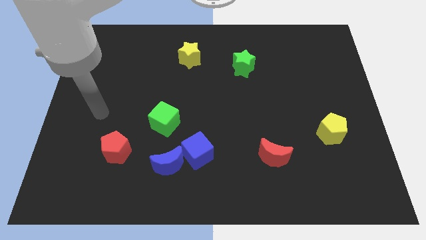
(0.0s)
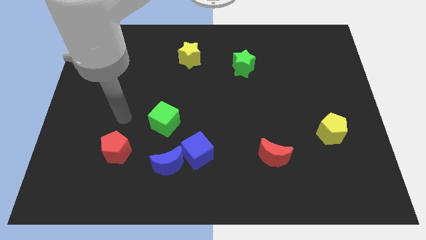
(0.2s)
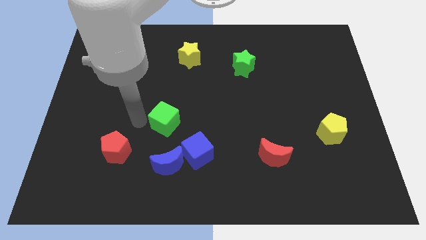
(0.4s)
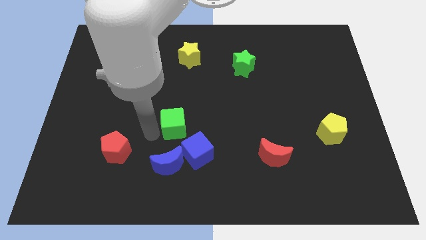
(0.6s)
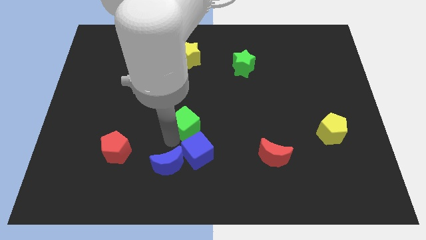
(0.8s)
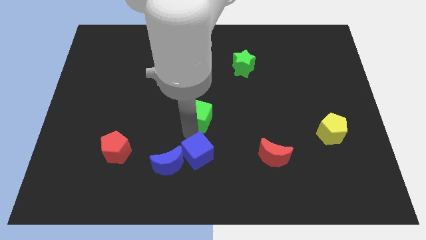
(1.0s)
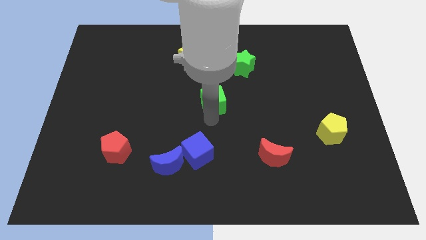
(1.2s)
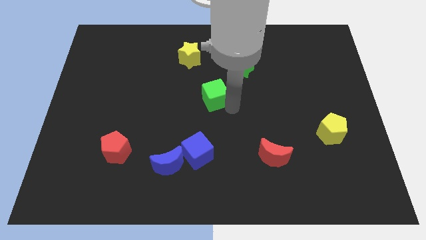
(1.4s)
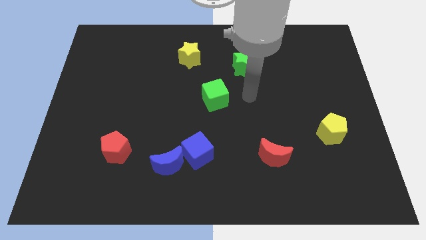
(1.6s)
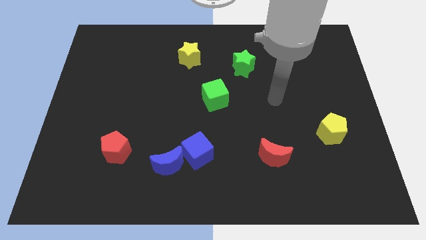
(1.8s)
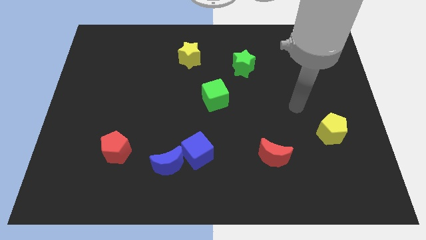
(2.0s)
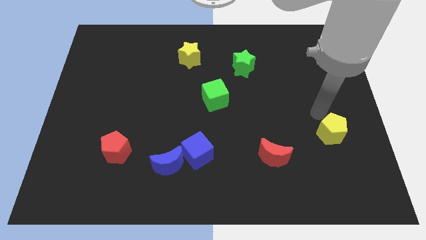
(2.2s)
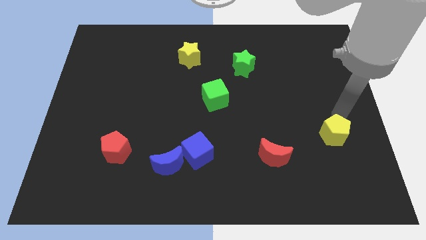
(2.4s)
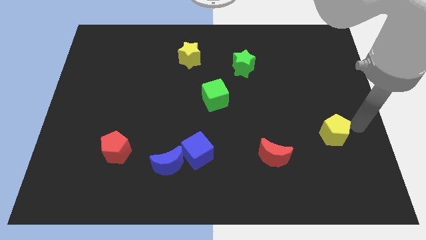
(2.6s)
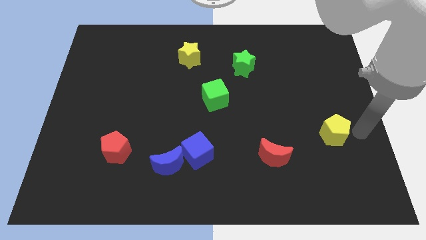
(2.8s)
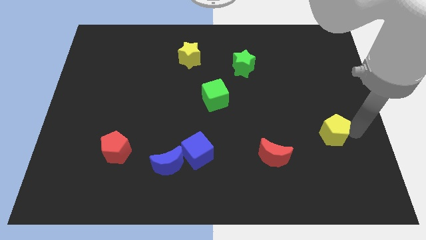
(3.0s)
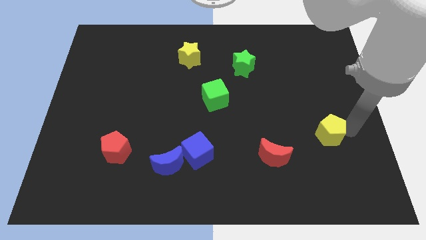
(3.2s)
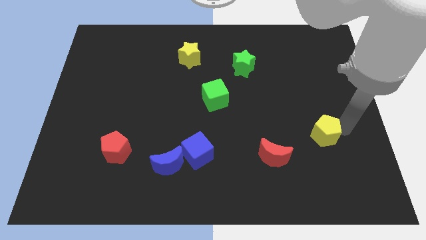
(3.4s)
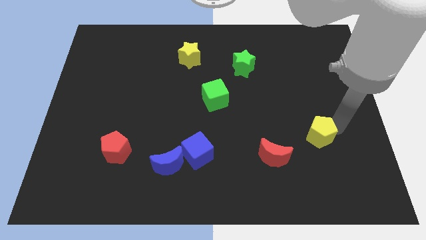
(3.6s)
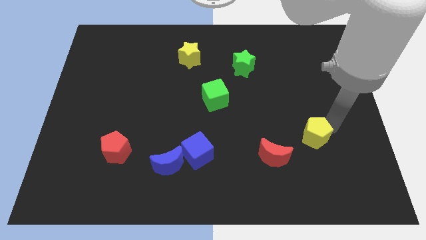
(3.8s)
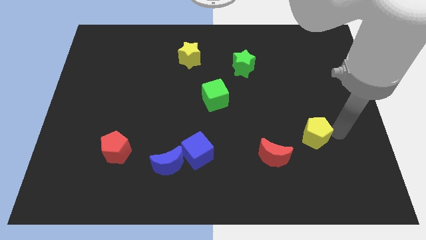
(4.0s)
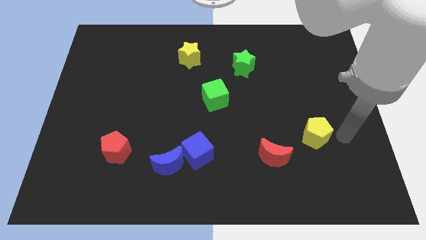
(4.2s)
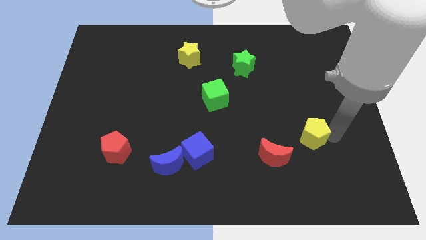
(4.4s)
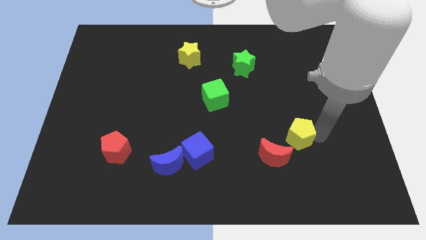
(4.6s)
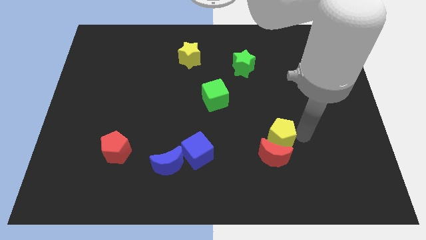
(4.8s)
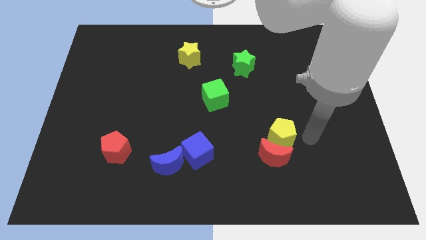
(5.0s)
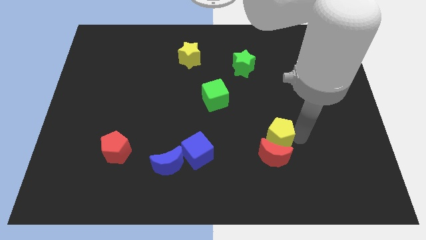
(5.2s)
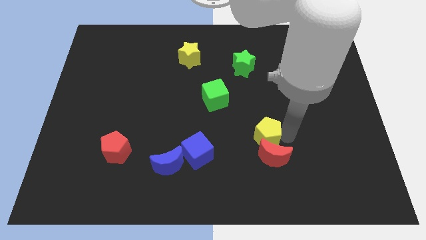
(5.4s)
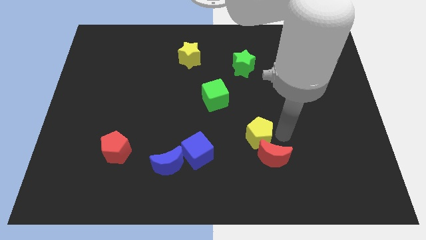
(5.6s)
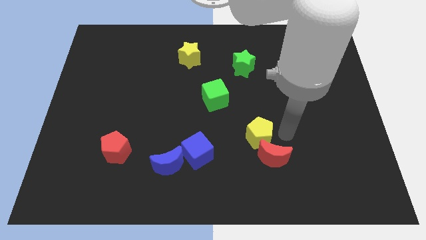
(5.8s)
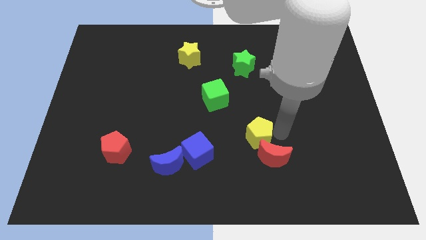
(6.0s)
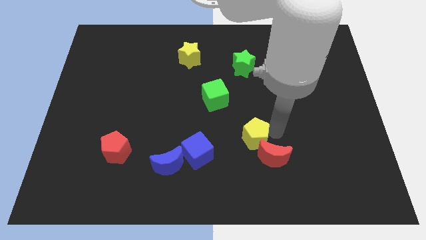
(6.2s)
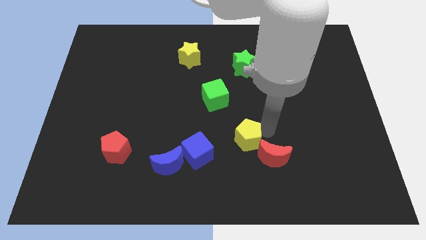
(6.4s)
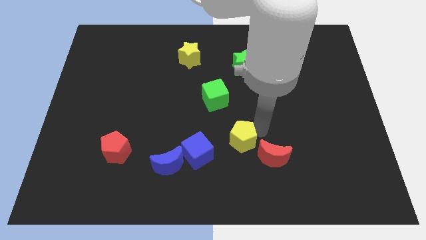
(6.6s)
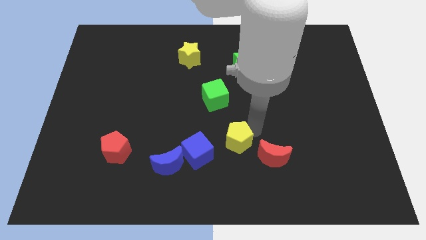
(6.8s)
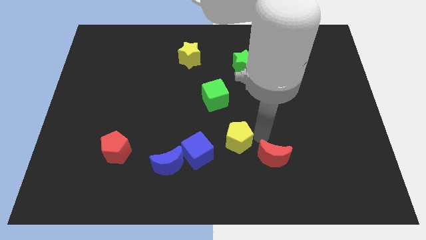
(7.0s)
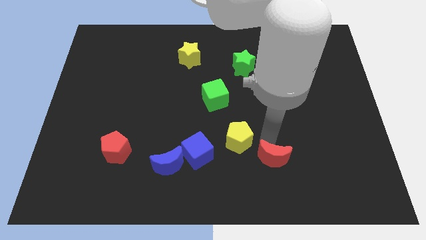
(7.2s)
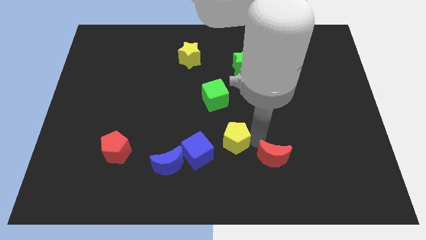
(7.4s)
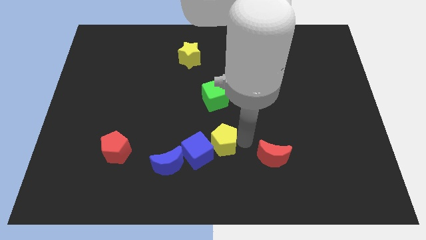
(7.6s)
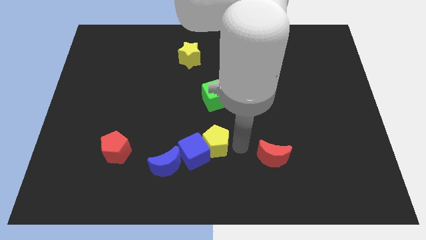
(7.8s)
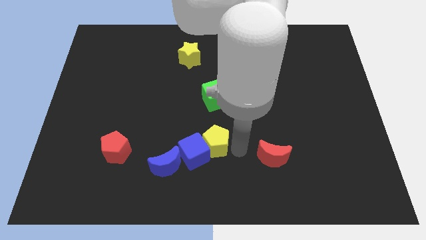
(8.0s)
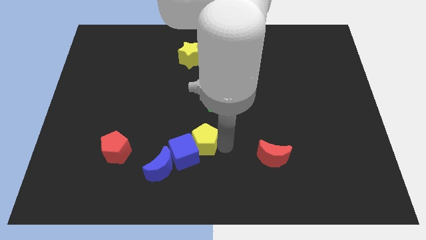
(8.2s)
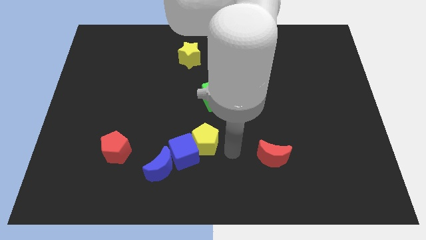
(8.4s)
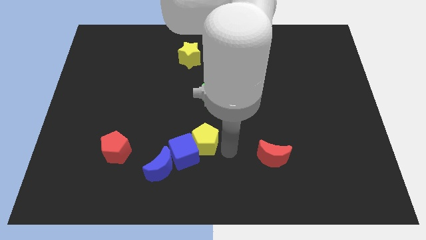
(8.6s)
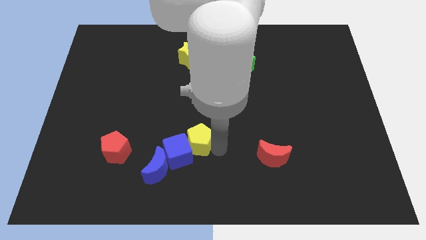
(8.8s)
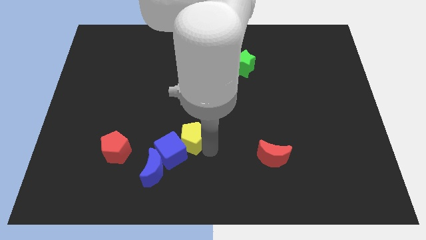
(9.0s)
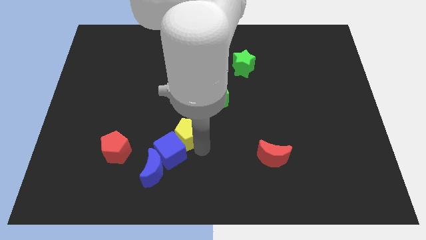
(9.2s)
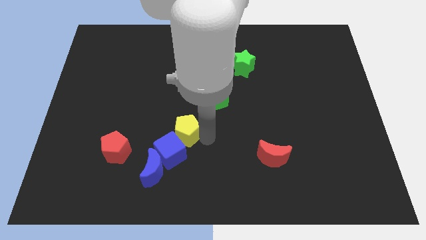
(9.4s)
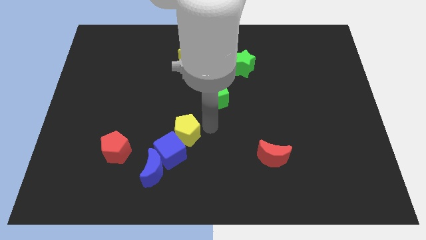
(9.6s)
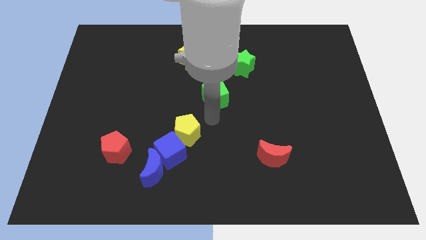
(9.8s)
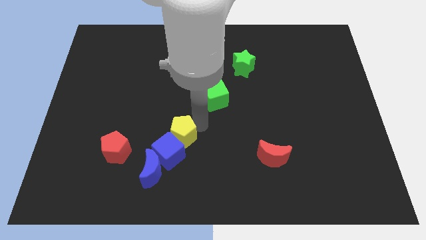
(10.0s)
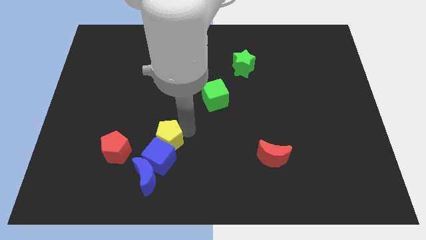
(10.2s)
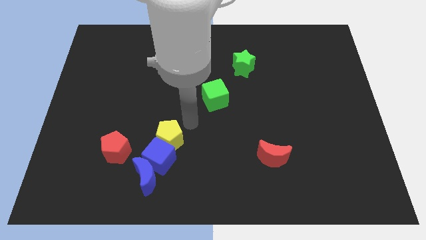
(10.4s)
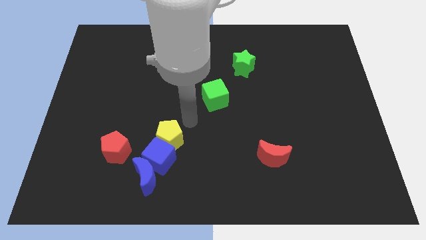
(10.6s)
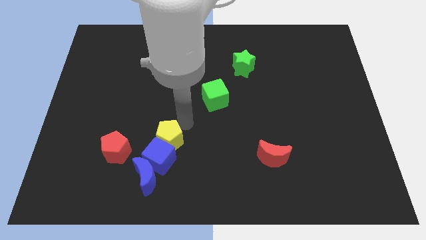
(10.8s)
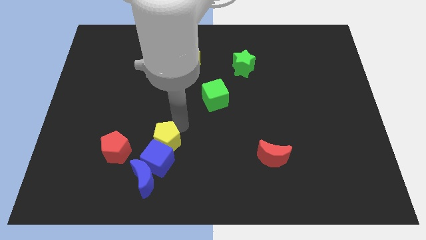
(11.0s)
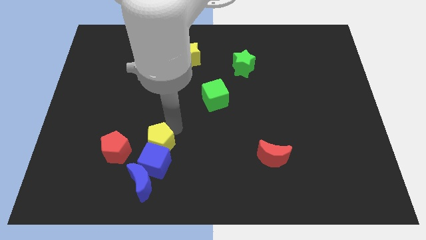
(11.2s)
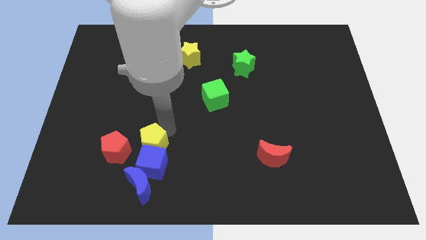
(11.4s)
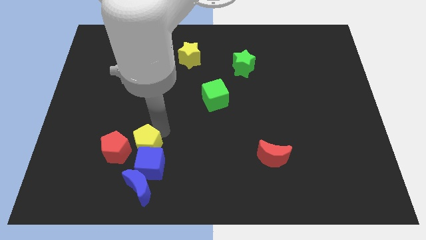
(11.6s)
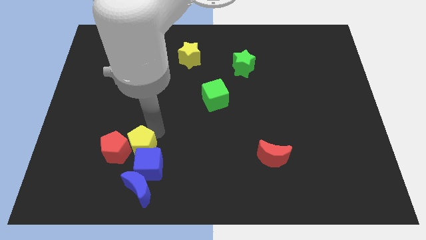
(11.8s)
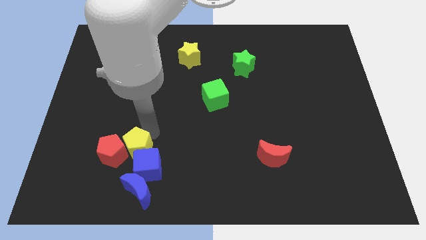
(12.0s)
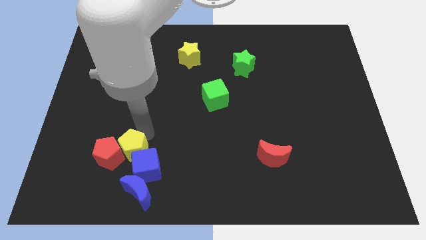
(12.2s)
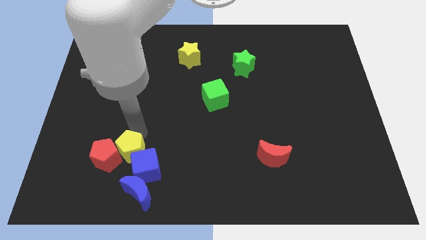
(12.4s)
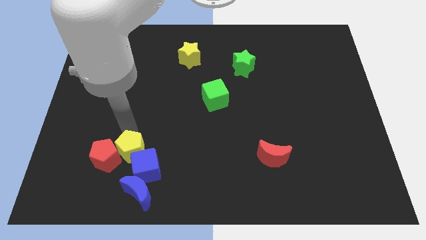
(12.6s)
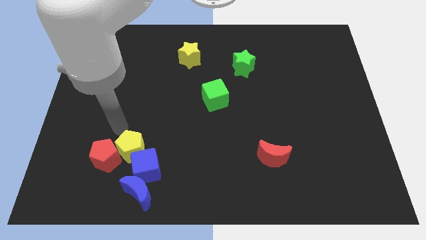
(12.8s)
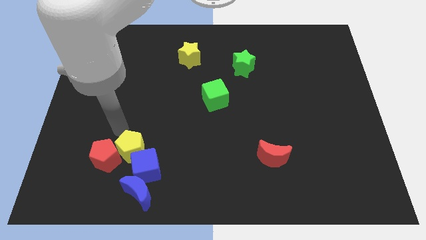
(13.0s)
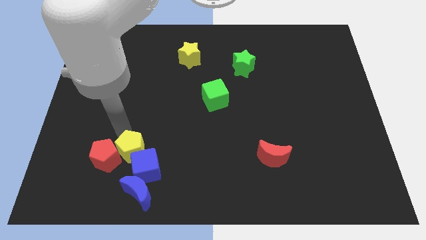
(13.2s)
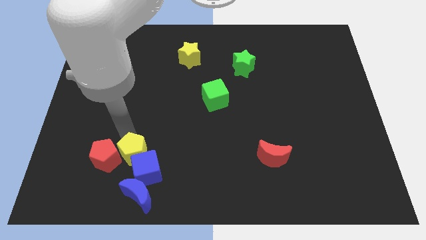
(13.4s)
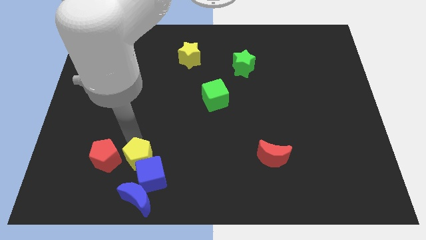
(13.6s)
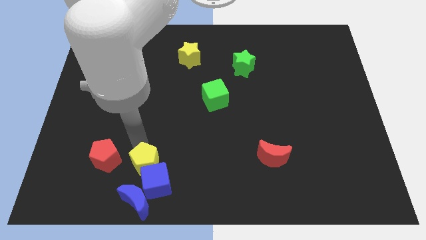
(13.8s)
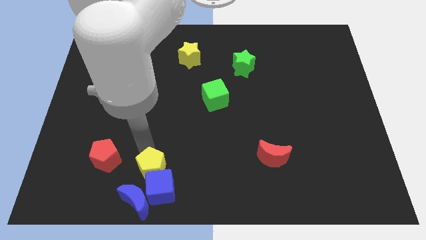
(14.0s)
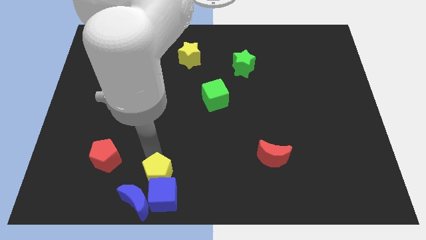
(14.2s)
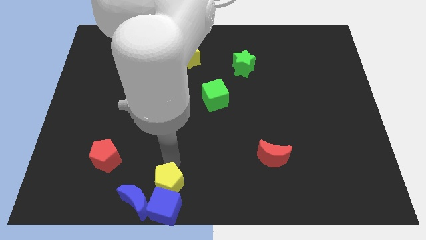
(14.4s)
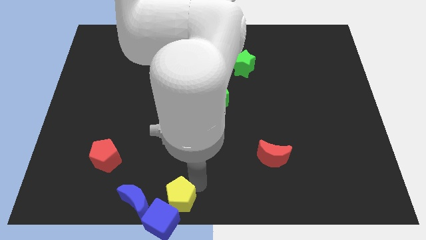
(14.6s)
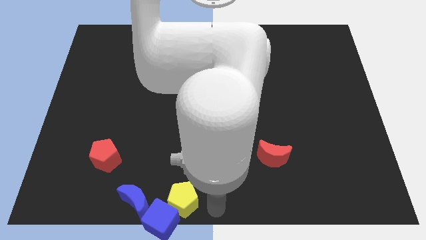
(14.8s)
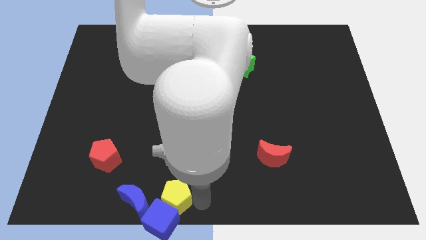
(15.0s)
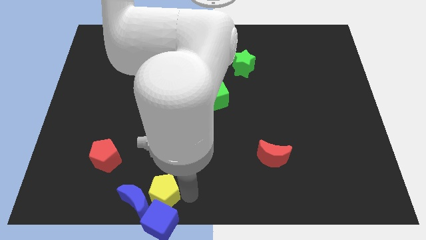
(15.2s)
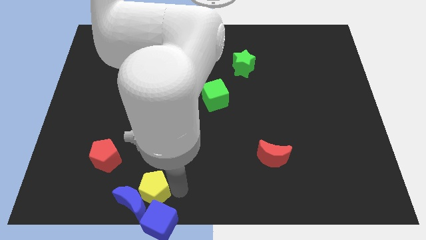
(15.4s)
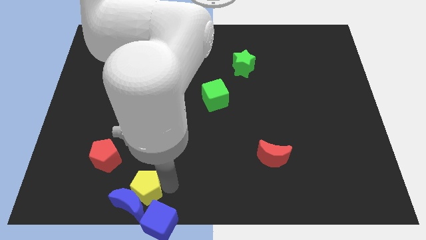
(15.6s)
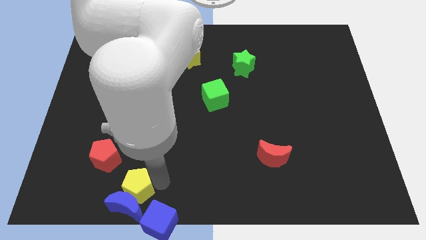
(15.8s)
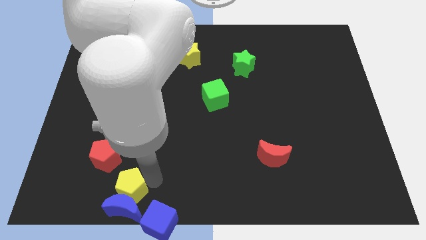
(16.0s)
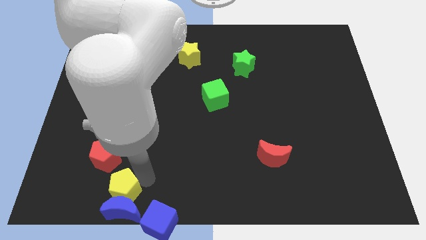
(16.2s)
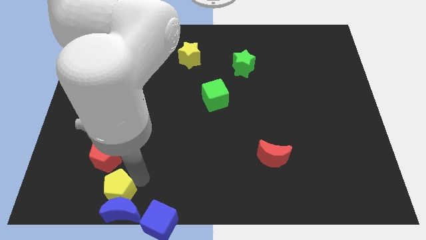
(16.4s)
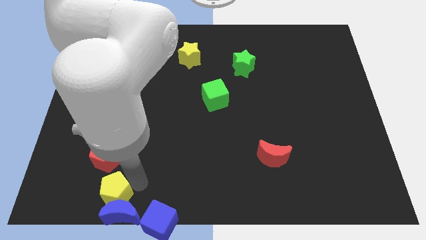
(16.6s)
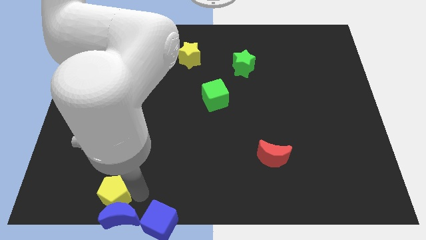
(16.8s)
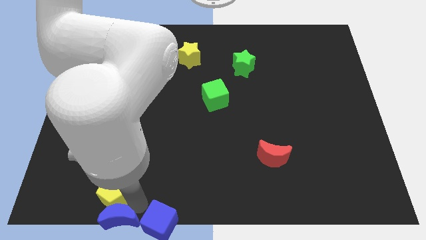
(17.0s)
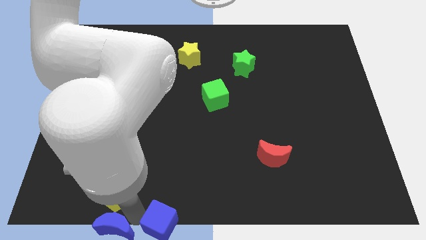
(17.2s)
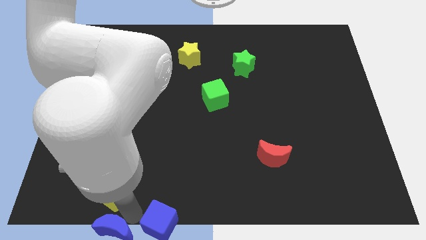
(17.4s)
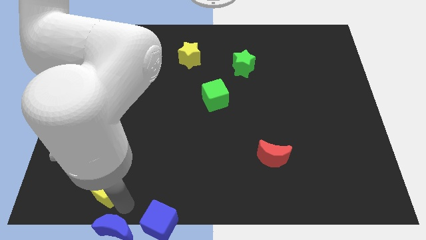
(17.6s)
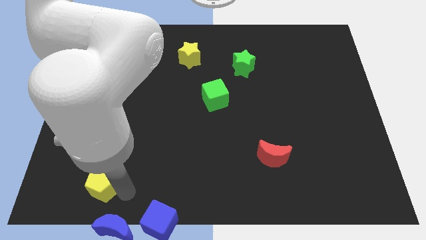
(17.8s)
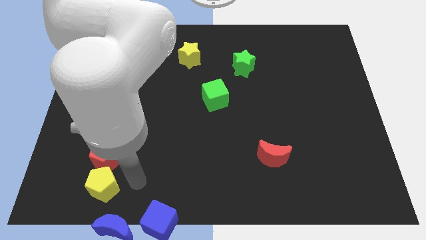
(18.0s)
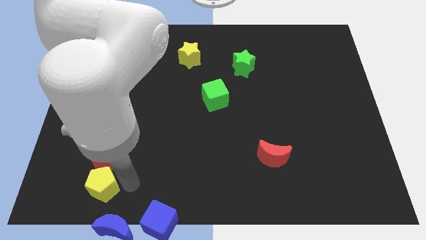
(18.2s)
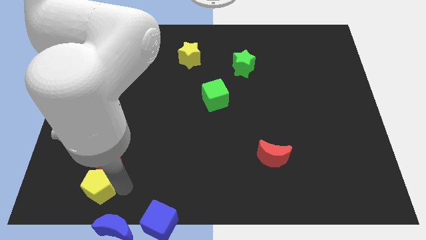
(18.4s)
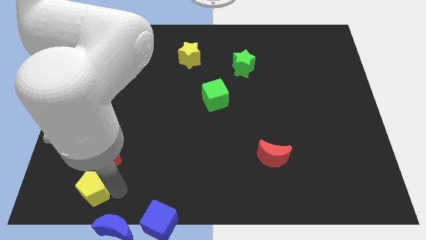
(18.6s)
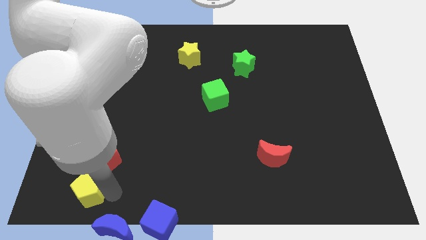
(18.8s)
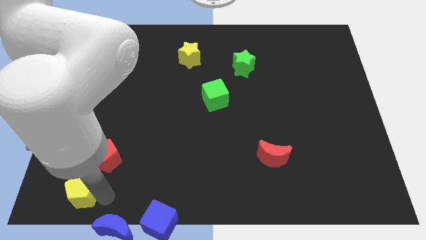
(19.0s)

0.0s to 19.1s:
push the yellow pentagon to the bottom left
